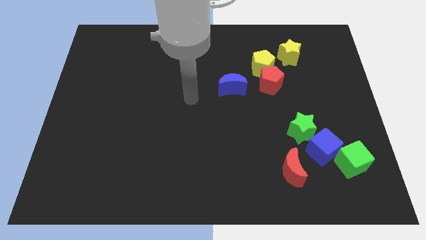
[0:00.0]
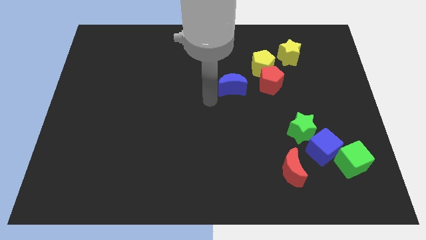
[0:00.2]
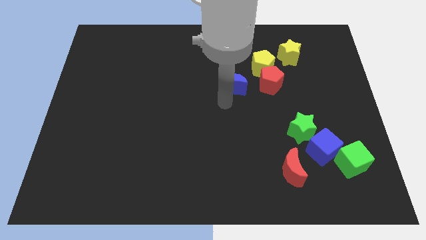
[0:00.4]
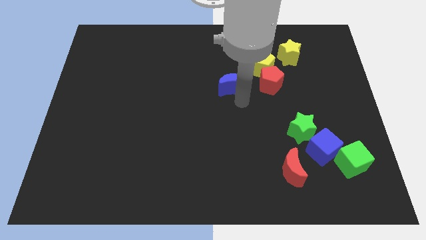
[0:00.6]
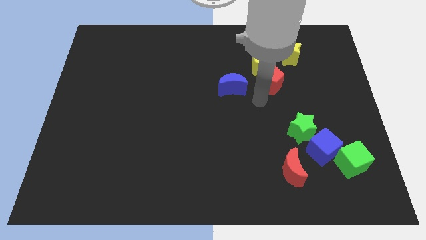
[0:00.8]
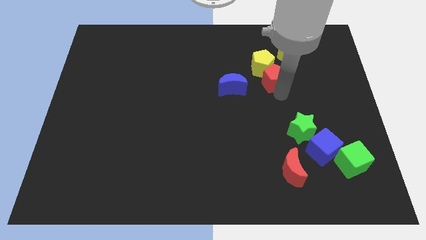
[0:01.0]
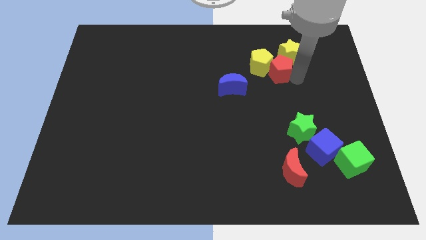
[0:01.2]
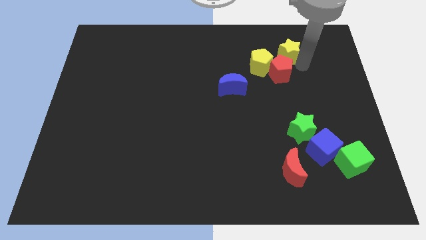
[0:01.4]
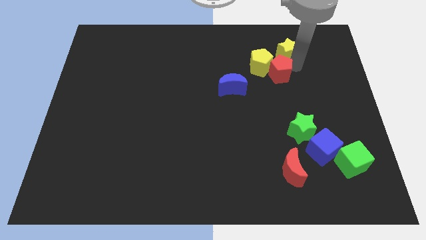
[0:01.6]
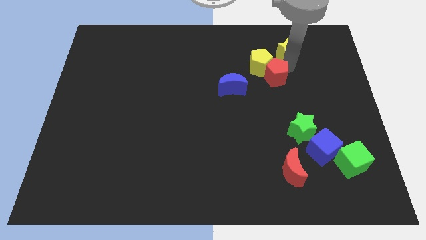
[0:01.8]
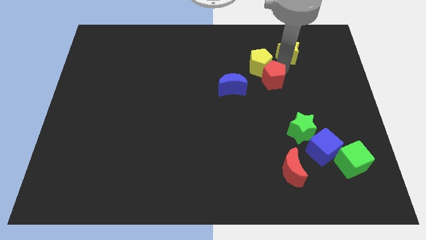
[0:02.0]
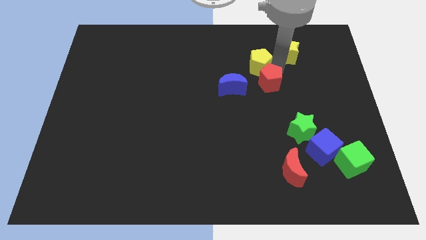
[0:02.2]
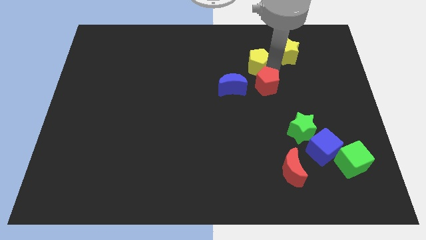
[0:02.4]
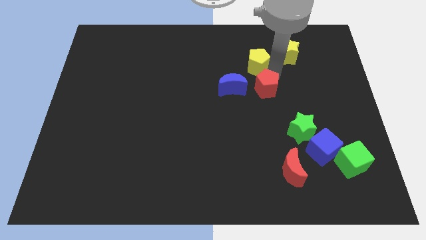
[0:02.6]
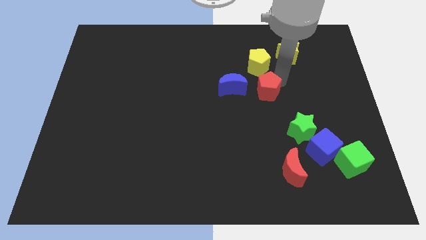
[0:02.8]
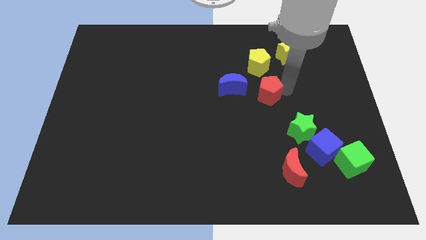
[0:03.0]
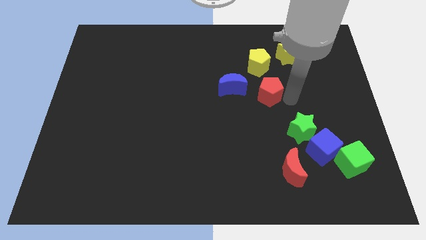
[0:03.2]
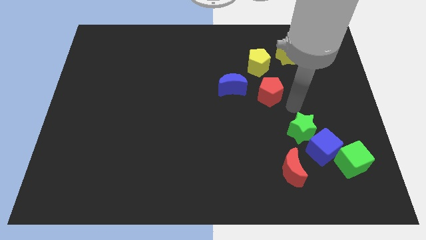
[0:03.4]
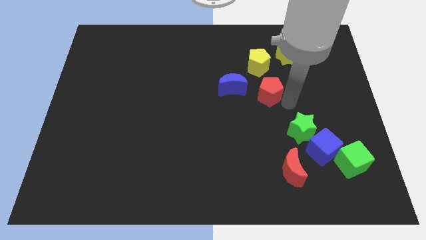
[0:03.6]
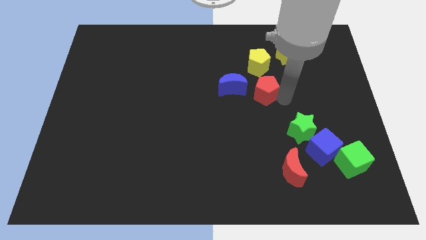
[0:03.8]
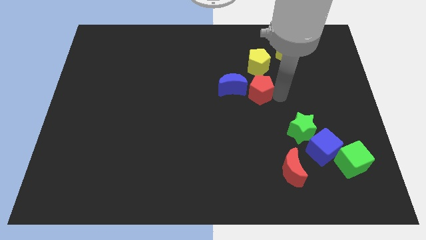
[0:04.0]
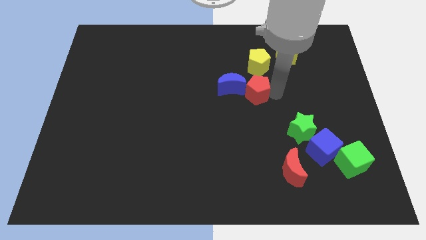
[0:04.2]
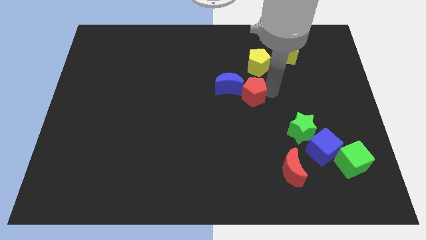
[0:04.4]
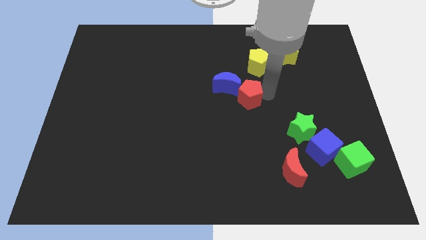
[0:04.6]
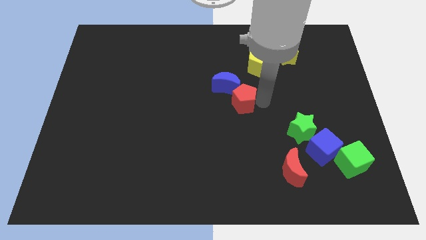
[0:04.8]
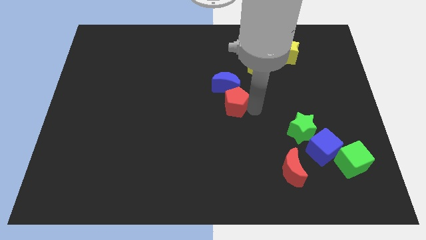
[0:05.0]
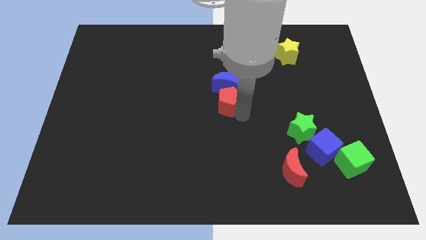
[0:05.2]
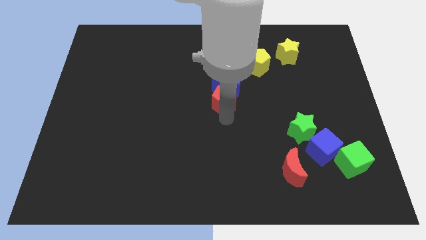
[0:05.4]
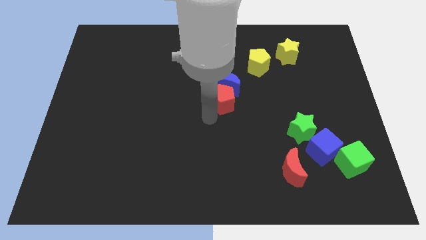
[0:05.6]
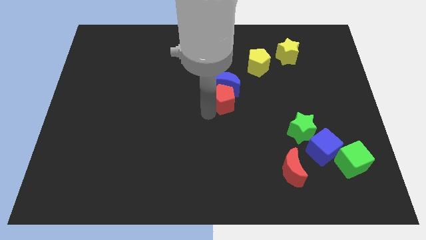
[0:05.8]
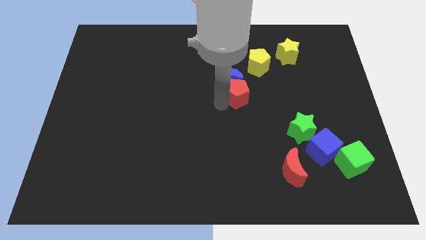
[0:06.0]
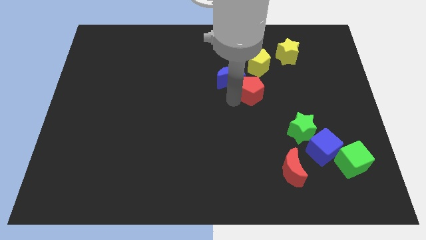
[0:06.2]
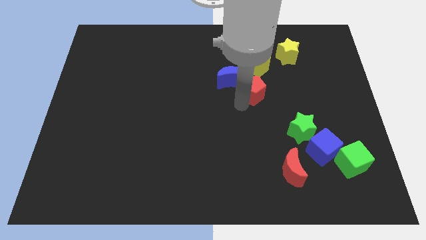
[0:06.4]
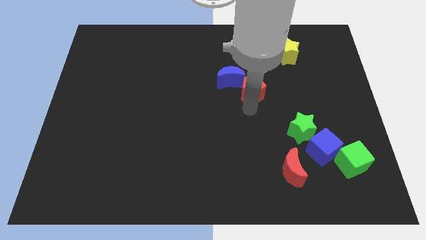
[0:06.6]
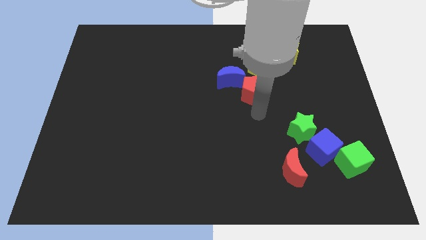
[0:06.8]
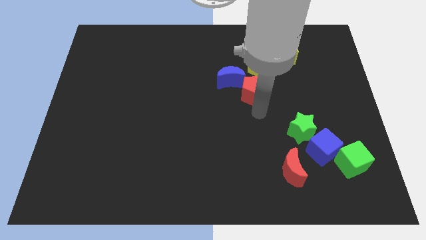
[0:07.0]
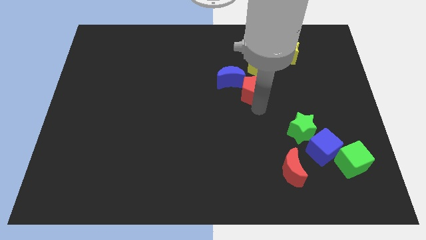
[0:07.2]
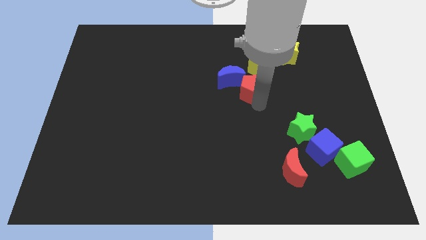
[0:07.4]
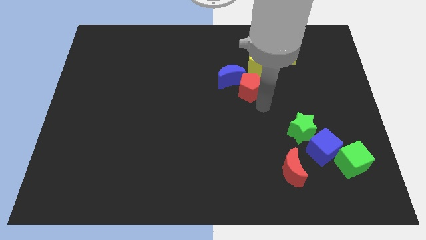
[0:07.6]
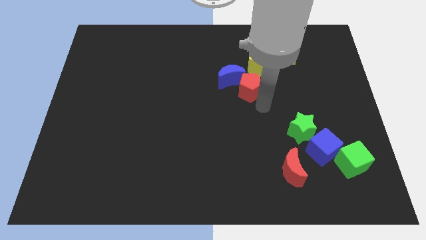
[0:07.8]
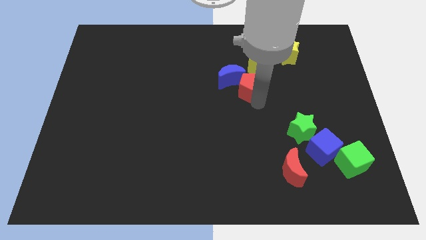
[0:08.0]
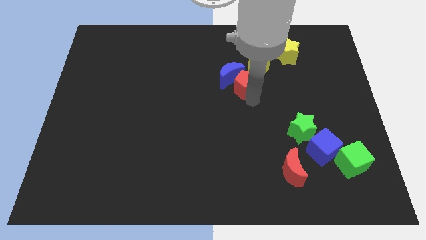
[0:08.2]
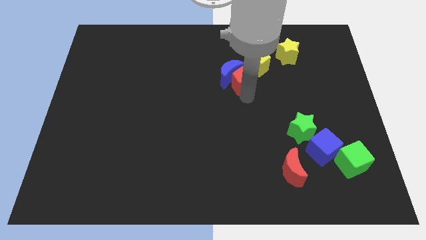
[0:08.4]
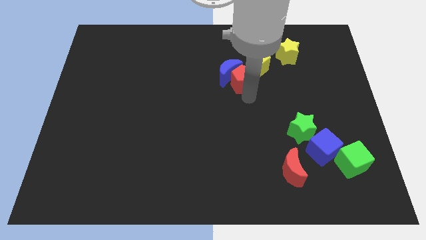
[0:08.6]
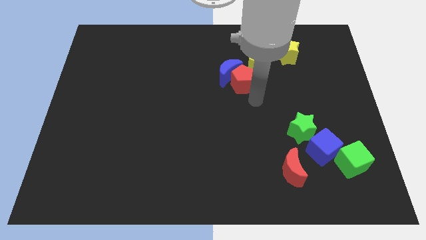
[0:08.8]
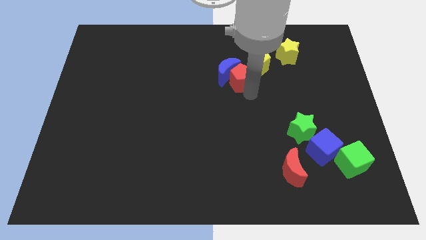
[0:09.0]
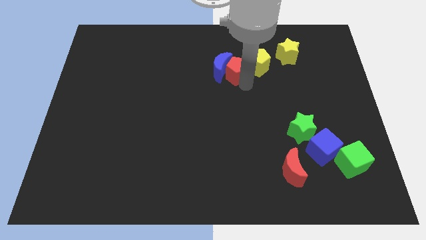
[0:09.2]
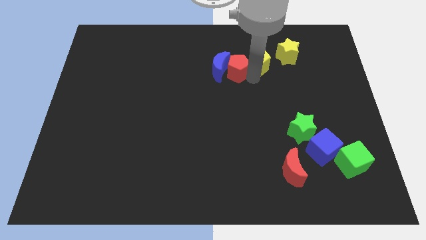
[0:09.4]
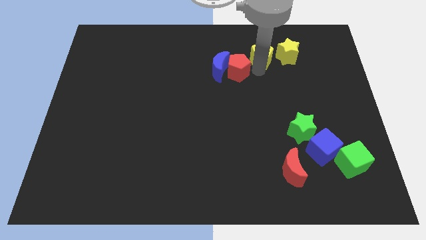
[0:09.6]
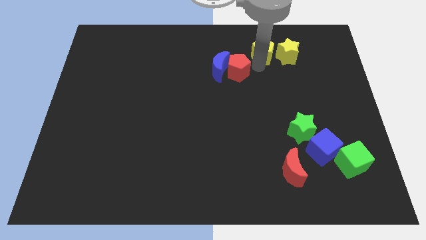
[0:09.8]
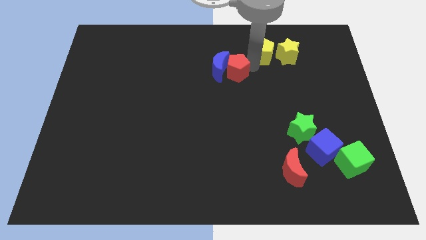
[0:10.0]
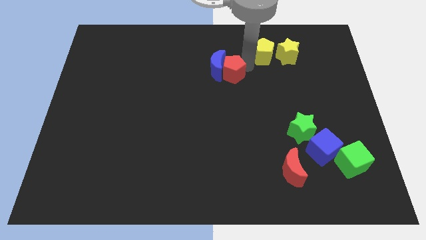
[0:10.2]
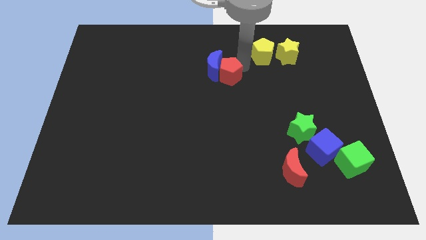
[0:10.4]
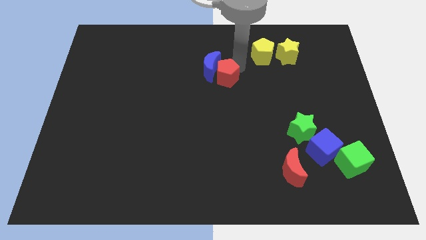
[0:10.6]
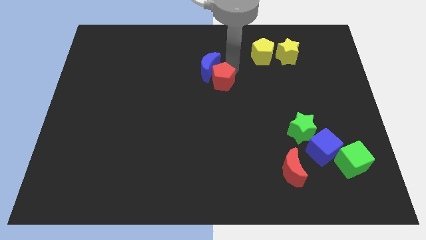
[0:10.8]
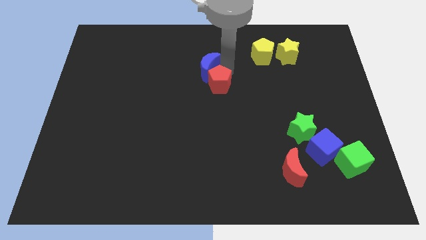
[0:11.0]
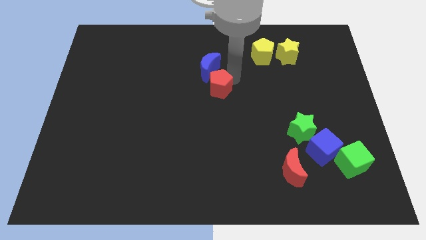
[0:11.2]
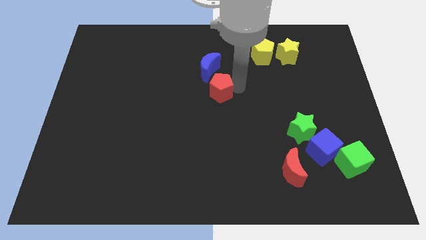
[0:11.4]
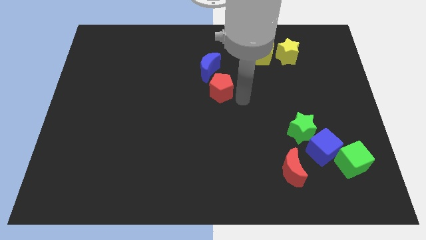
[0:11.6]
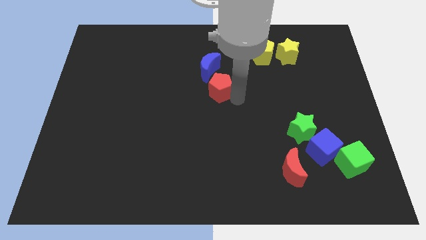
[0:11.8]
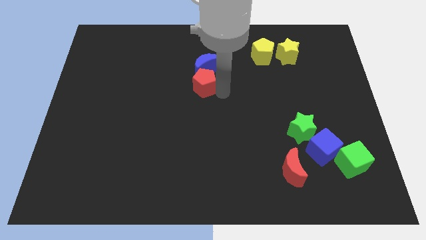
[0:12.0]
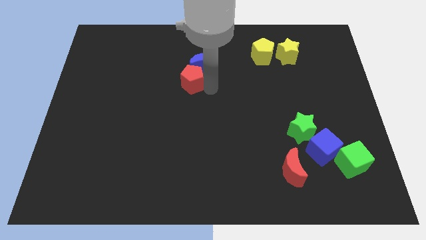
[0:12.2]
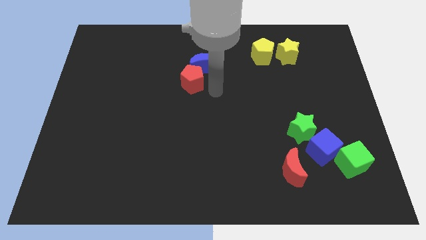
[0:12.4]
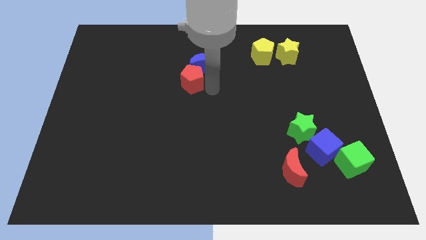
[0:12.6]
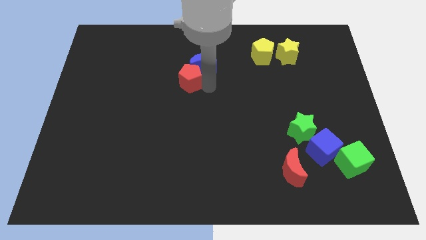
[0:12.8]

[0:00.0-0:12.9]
move the red pentagon to the left

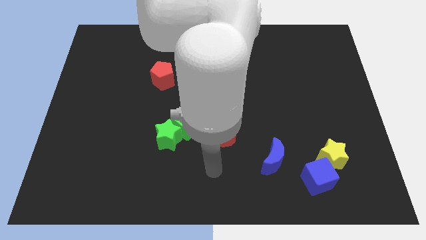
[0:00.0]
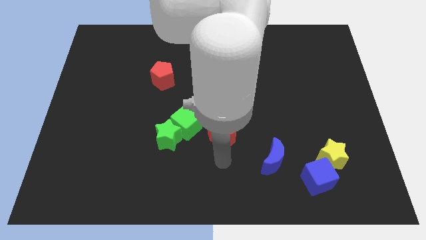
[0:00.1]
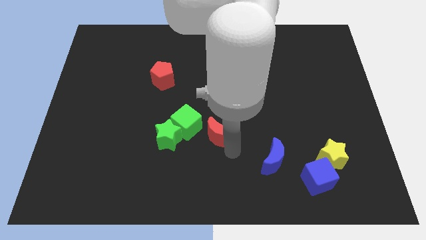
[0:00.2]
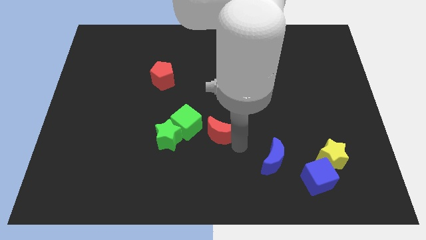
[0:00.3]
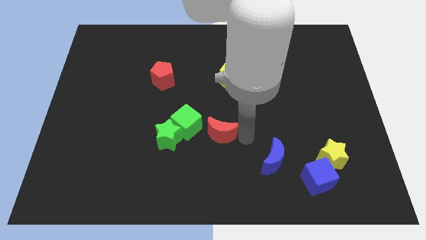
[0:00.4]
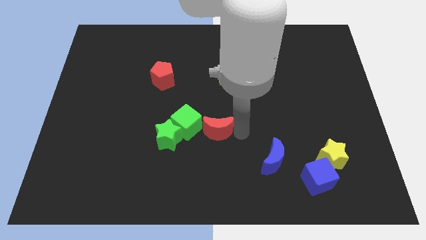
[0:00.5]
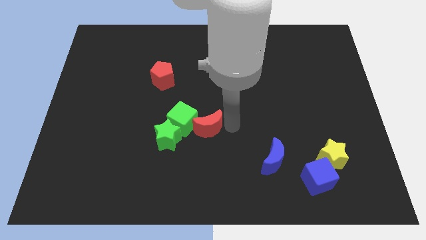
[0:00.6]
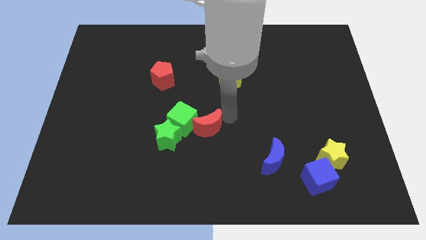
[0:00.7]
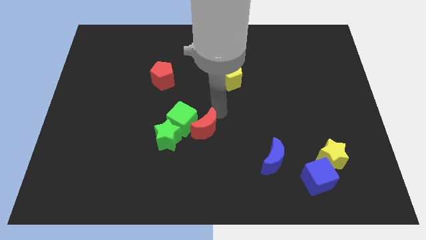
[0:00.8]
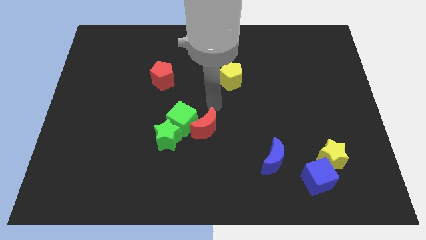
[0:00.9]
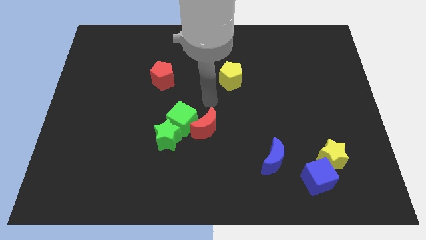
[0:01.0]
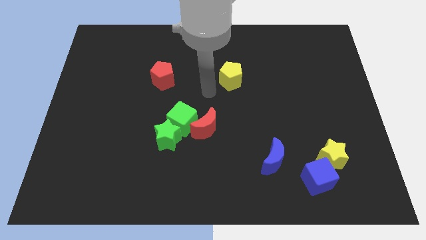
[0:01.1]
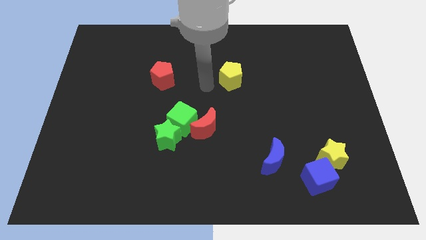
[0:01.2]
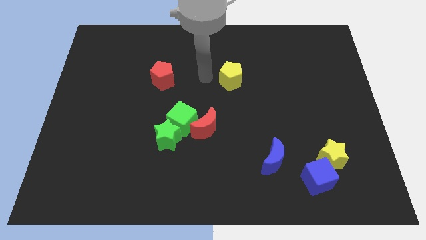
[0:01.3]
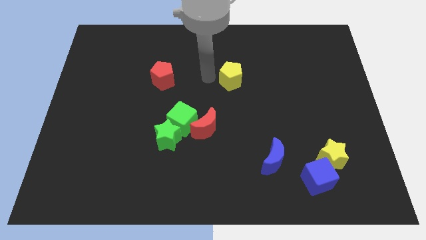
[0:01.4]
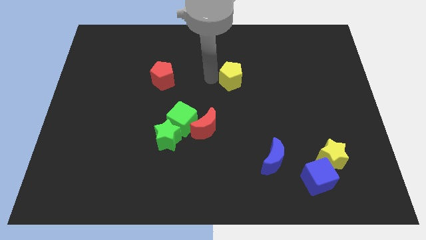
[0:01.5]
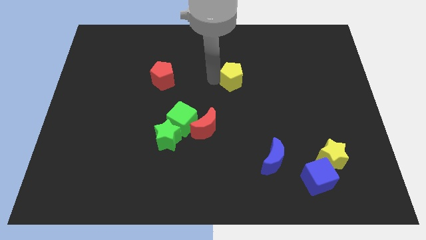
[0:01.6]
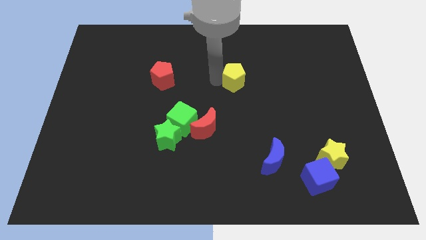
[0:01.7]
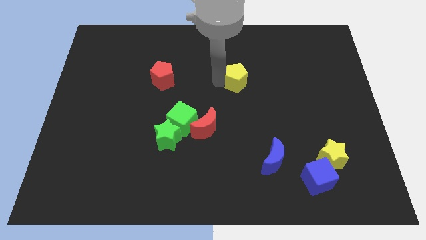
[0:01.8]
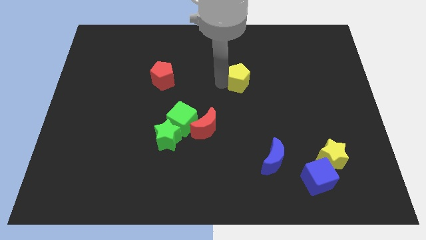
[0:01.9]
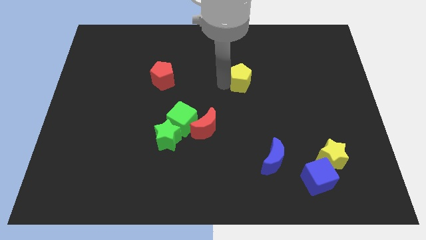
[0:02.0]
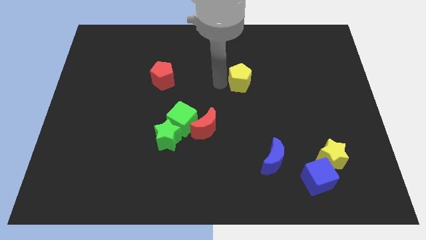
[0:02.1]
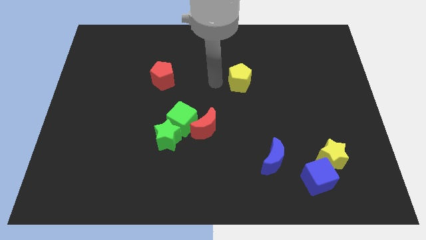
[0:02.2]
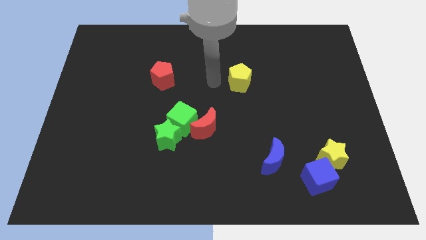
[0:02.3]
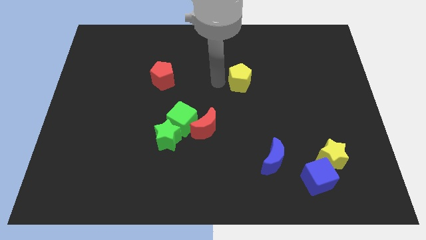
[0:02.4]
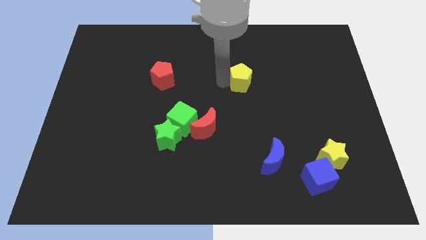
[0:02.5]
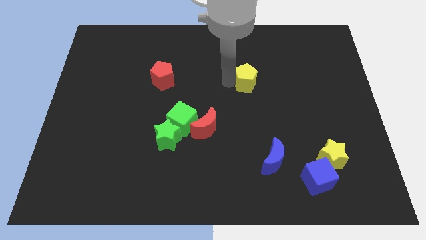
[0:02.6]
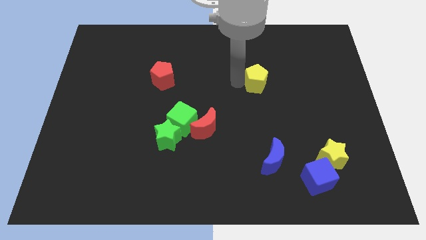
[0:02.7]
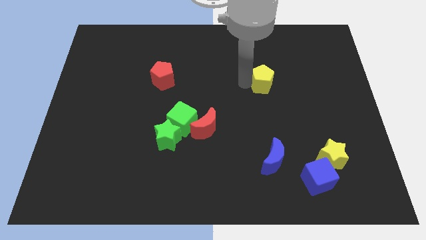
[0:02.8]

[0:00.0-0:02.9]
move the yellow pentagon a bit to the right
